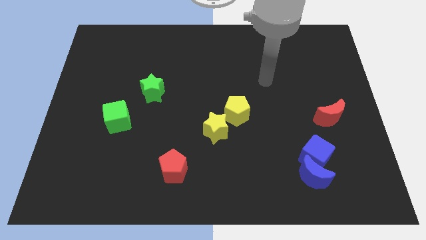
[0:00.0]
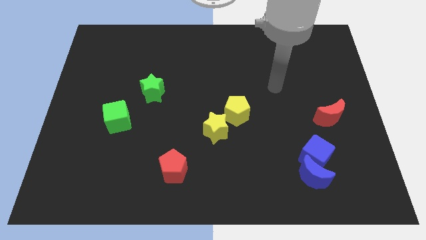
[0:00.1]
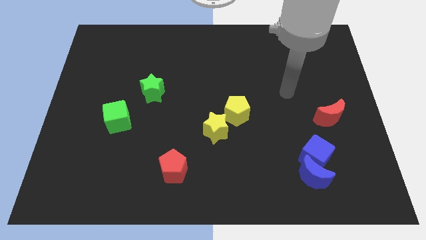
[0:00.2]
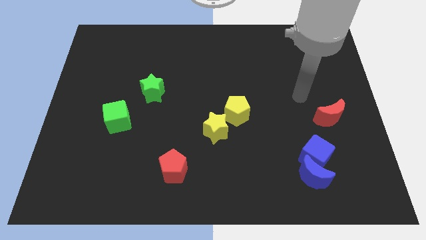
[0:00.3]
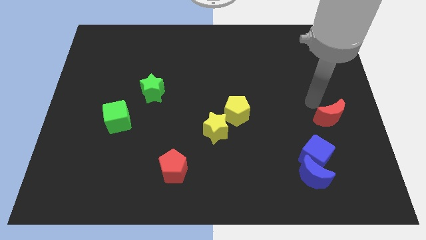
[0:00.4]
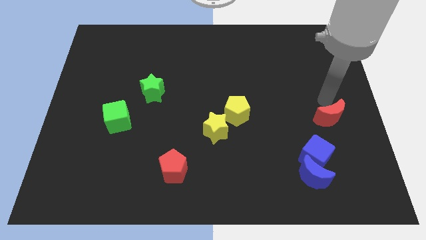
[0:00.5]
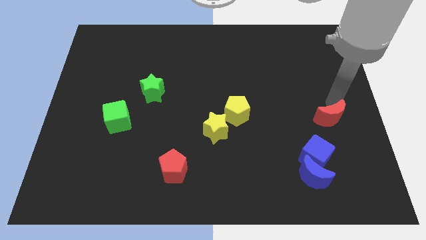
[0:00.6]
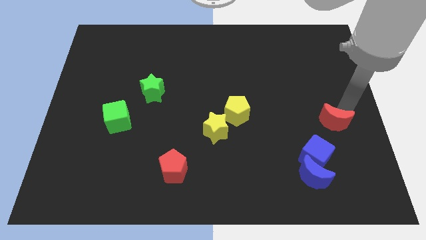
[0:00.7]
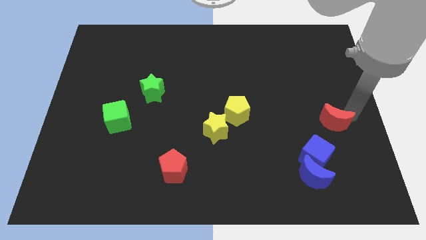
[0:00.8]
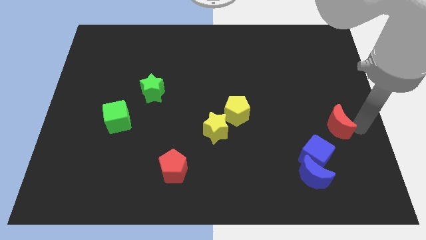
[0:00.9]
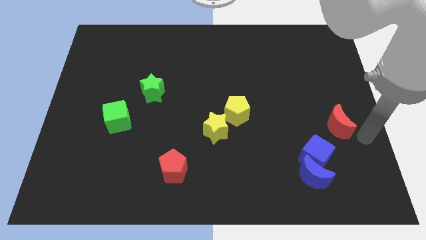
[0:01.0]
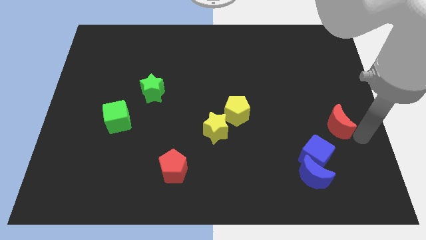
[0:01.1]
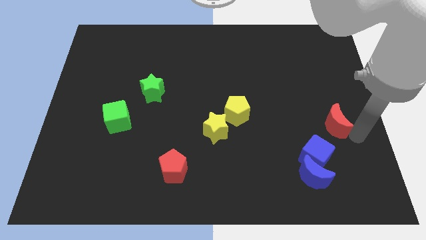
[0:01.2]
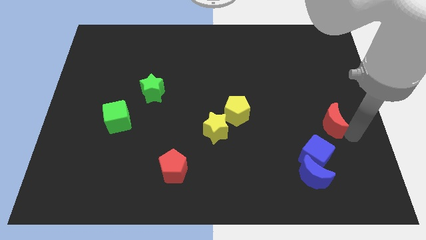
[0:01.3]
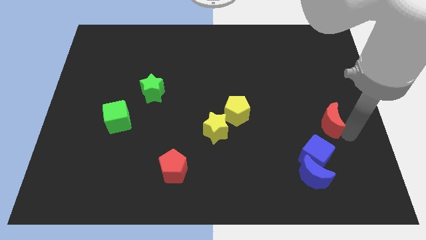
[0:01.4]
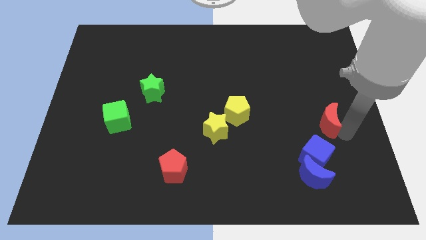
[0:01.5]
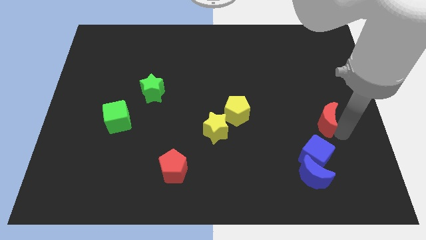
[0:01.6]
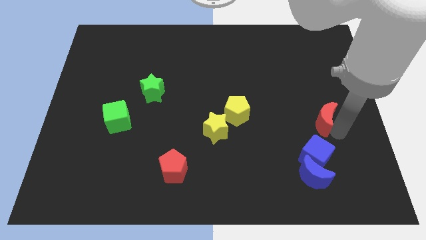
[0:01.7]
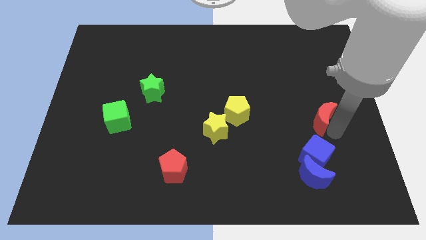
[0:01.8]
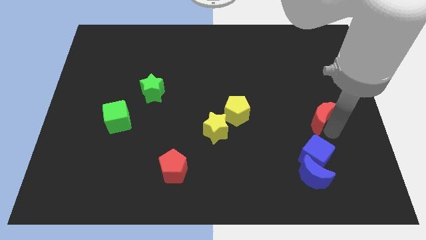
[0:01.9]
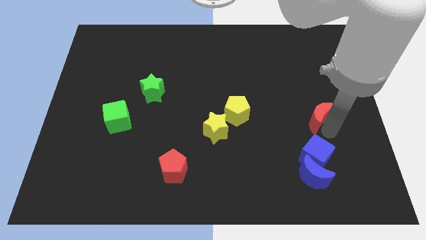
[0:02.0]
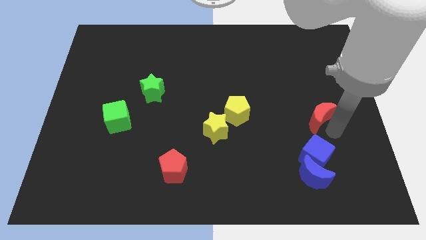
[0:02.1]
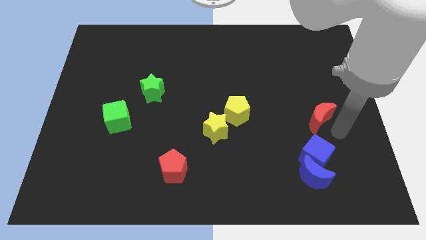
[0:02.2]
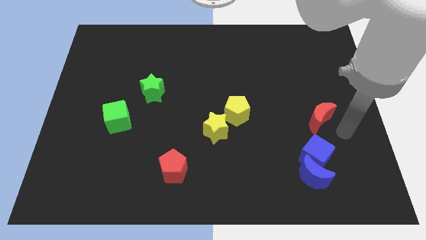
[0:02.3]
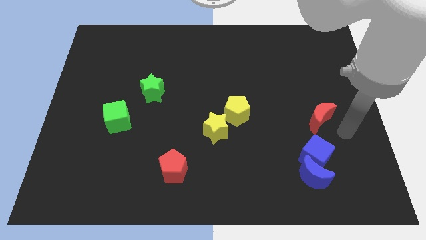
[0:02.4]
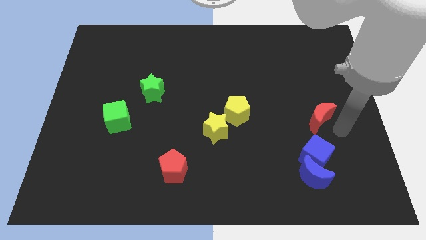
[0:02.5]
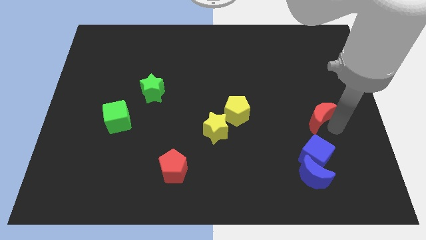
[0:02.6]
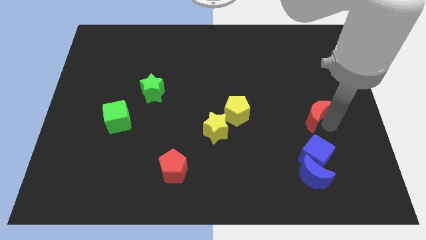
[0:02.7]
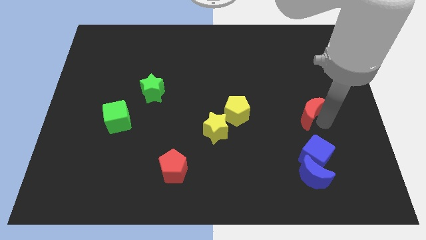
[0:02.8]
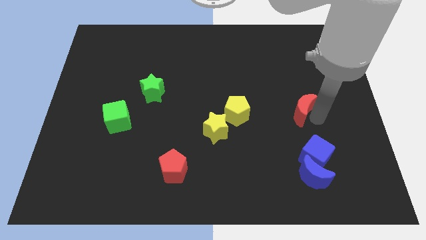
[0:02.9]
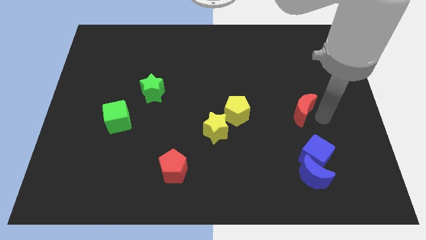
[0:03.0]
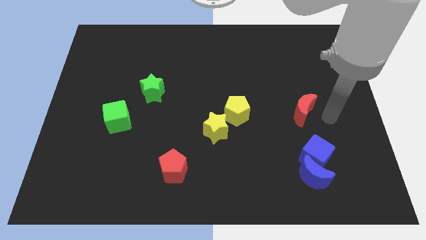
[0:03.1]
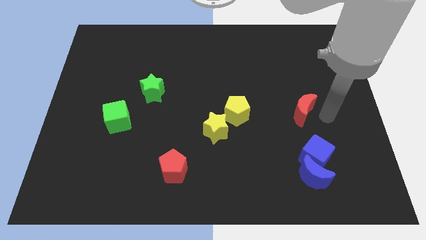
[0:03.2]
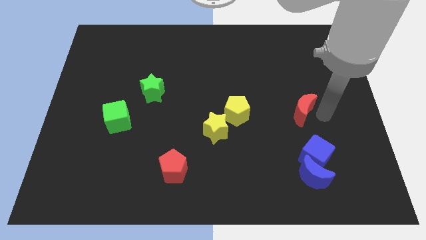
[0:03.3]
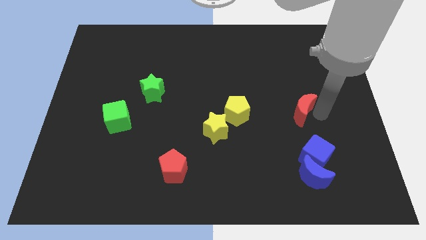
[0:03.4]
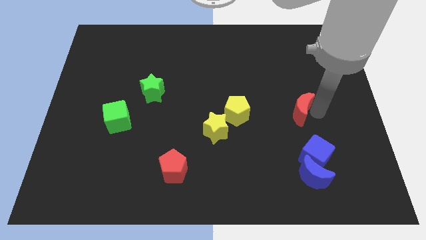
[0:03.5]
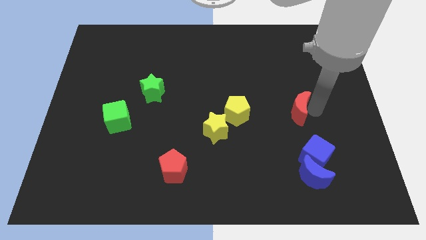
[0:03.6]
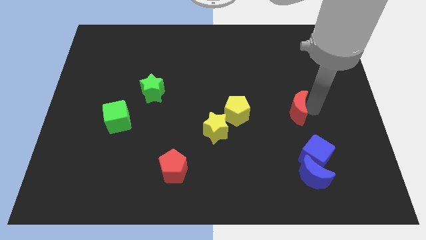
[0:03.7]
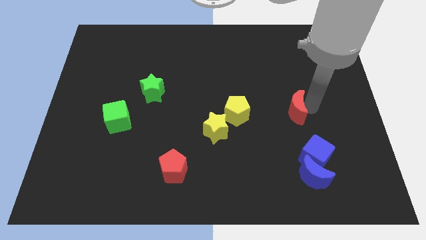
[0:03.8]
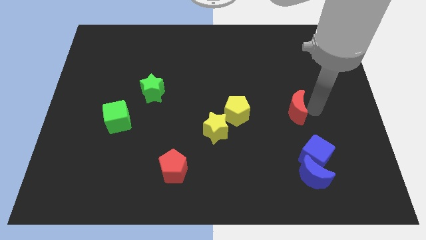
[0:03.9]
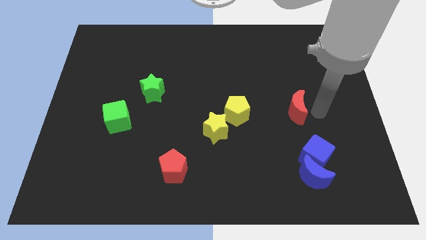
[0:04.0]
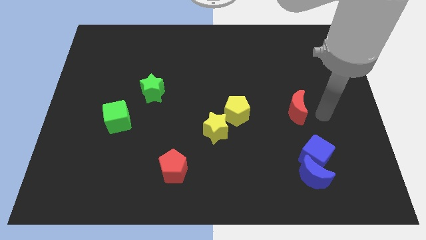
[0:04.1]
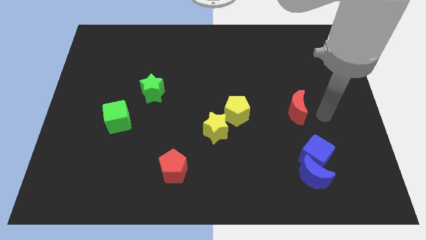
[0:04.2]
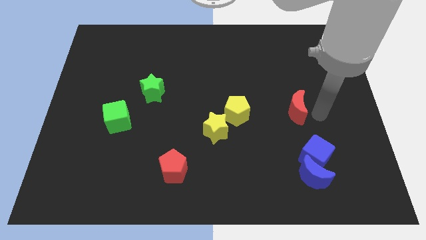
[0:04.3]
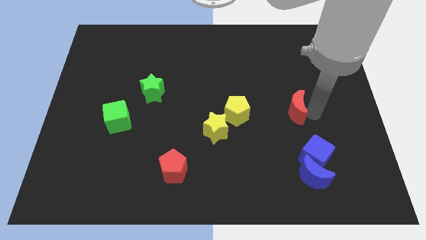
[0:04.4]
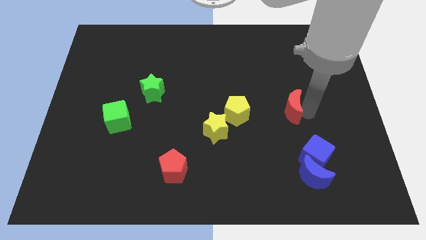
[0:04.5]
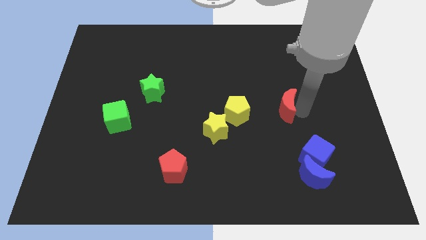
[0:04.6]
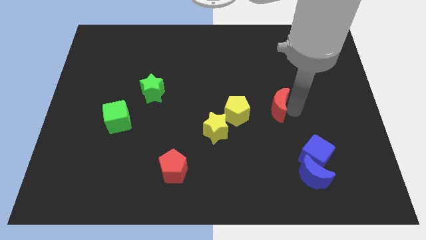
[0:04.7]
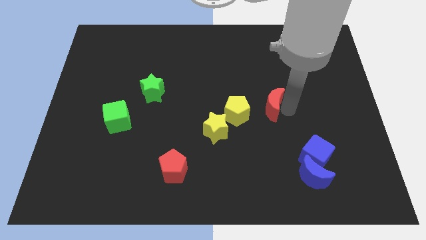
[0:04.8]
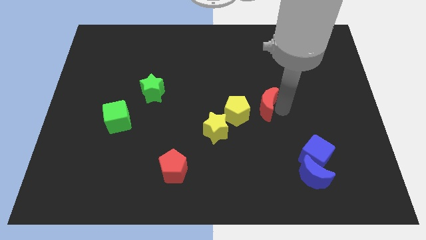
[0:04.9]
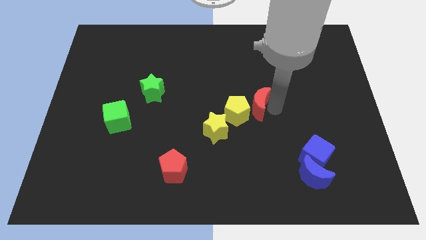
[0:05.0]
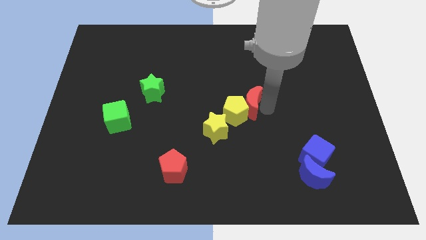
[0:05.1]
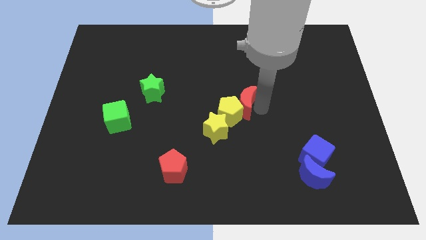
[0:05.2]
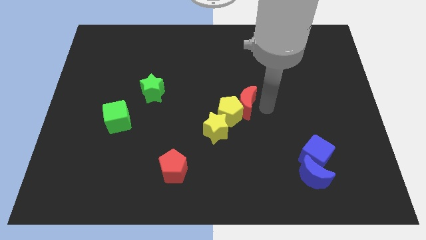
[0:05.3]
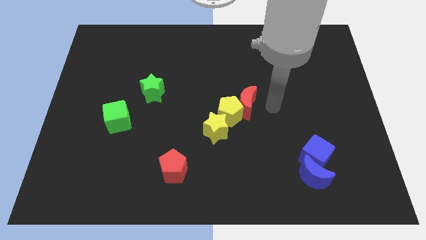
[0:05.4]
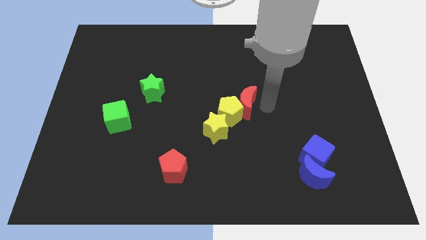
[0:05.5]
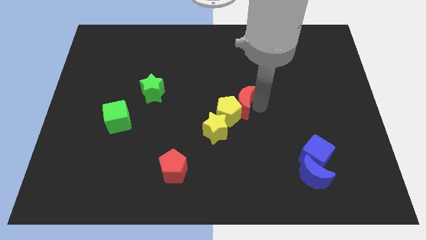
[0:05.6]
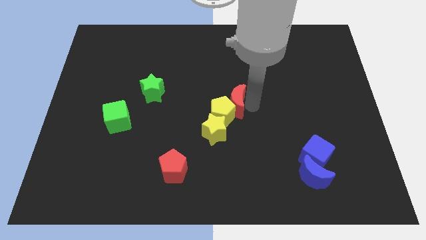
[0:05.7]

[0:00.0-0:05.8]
slide the red moon left

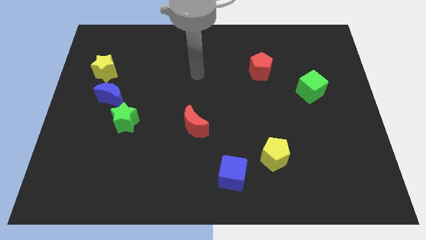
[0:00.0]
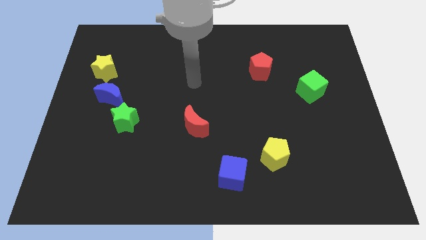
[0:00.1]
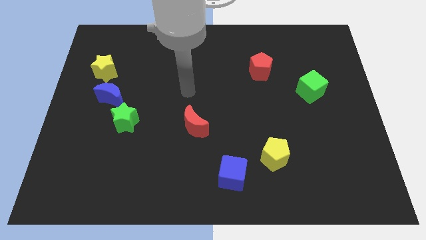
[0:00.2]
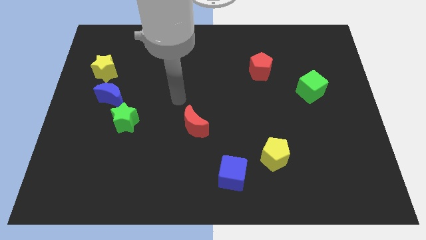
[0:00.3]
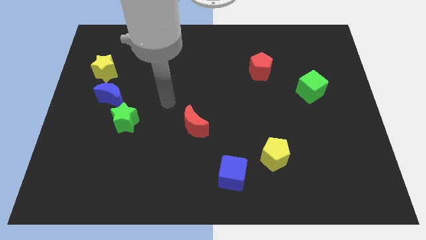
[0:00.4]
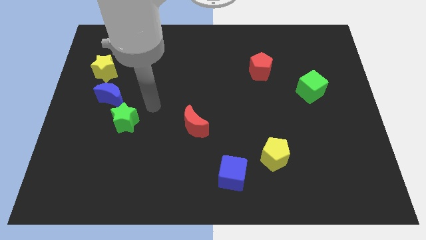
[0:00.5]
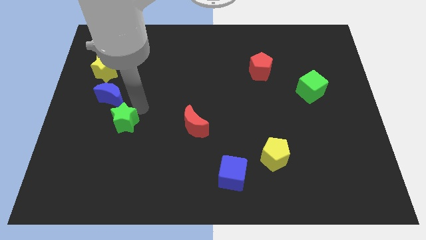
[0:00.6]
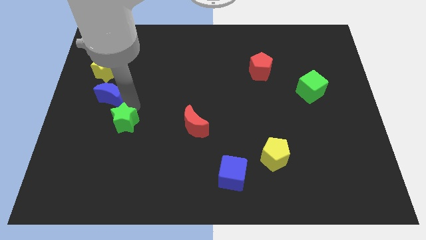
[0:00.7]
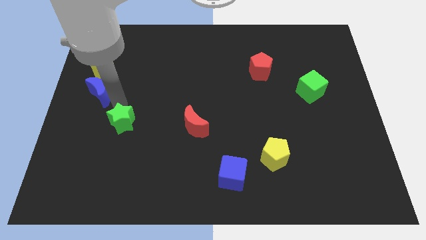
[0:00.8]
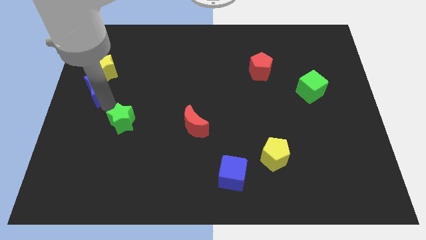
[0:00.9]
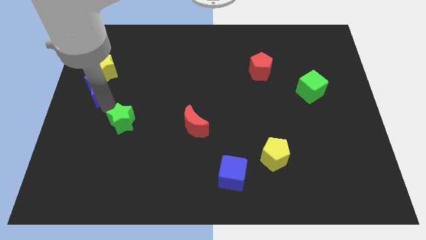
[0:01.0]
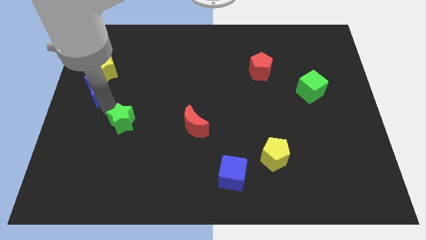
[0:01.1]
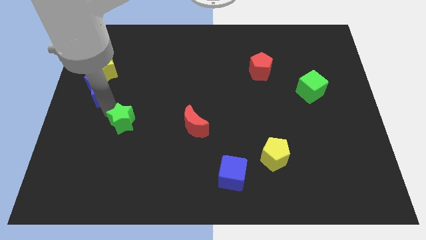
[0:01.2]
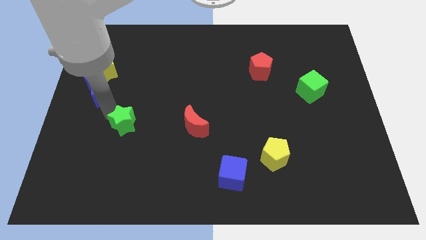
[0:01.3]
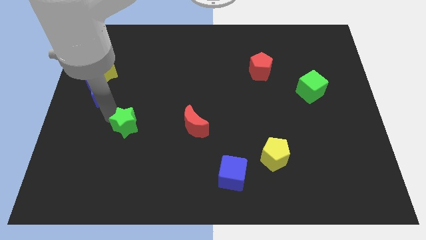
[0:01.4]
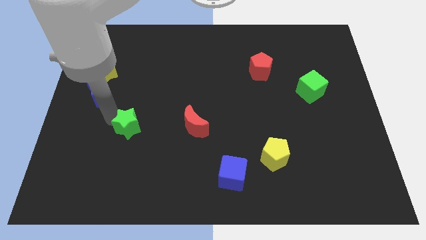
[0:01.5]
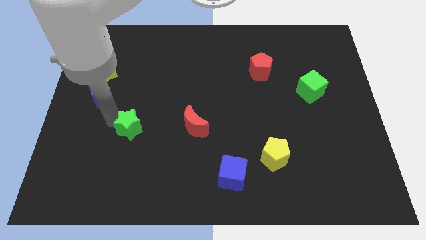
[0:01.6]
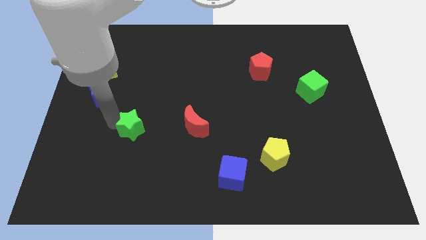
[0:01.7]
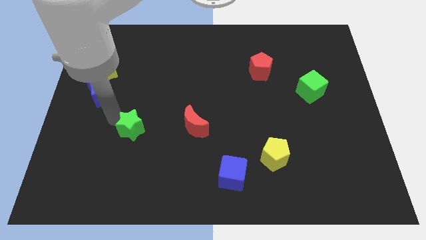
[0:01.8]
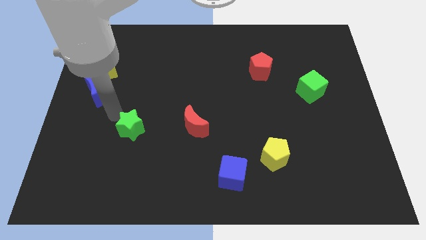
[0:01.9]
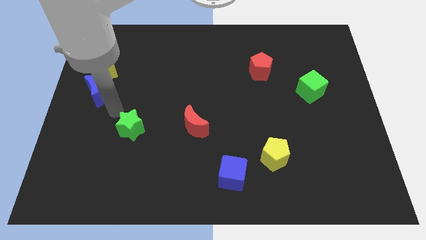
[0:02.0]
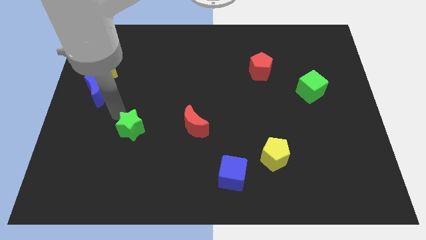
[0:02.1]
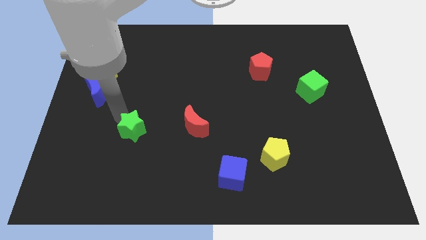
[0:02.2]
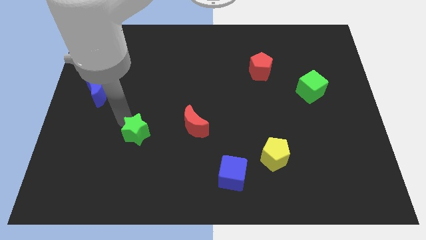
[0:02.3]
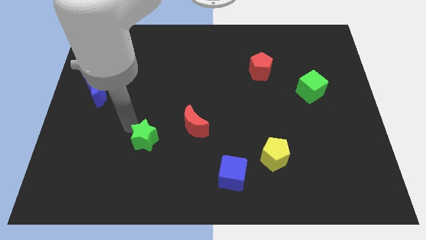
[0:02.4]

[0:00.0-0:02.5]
slightly push the green star diagonally downwards and right
